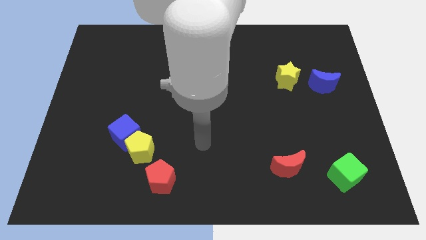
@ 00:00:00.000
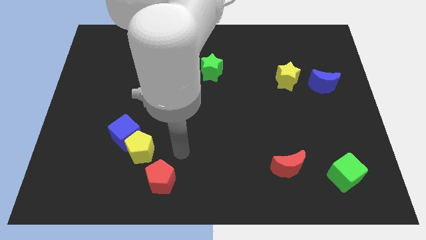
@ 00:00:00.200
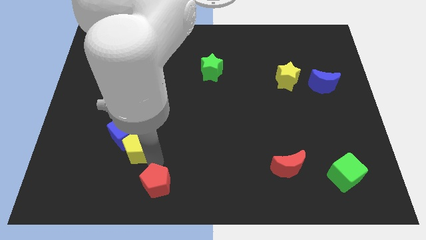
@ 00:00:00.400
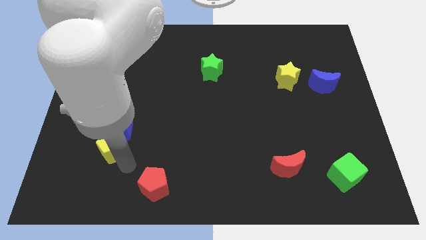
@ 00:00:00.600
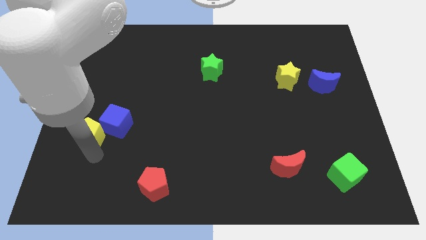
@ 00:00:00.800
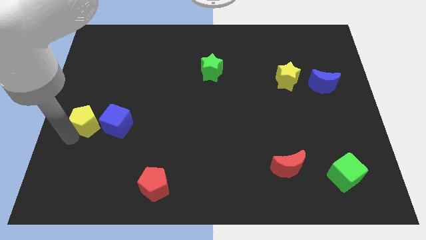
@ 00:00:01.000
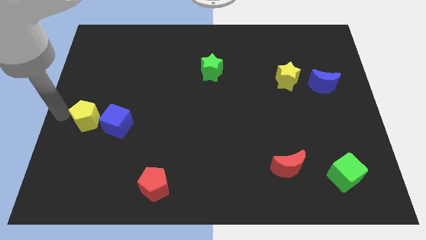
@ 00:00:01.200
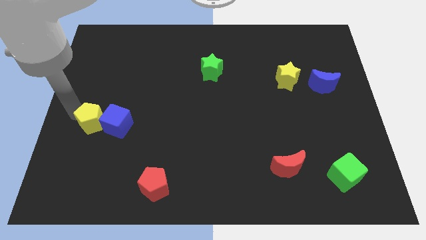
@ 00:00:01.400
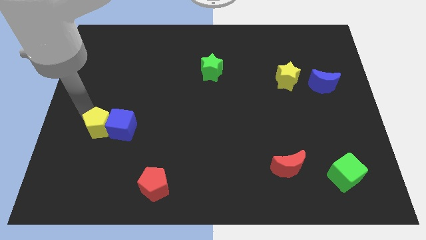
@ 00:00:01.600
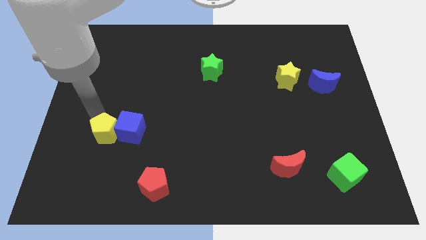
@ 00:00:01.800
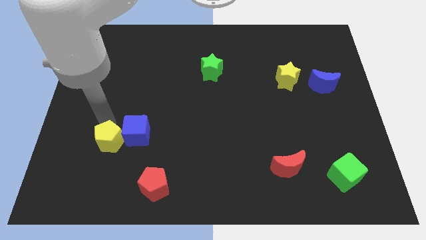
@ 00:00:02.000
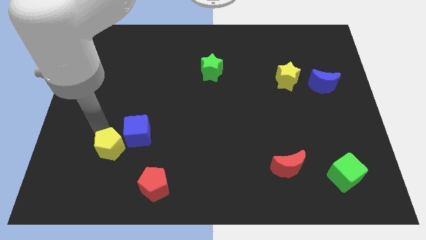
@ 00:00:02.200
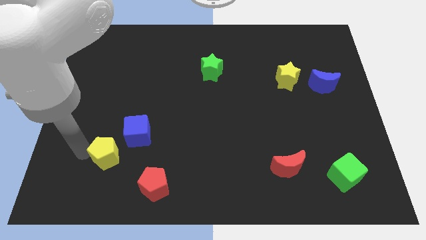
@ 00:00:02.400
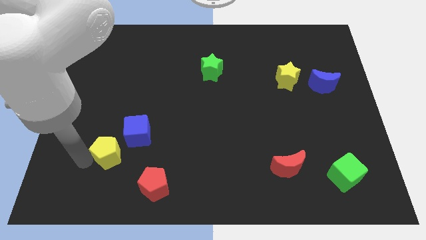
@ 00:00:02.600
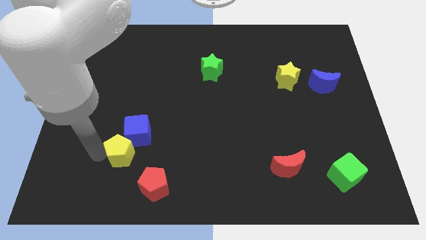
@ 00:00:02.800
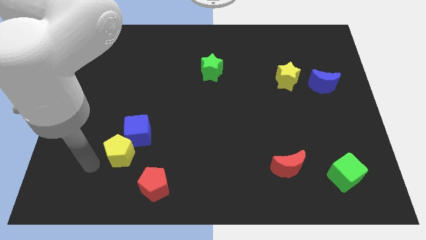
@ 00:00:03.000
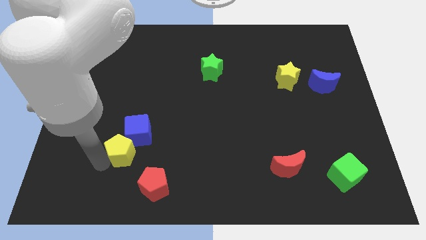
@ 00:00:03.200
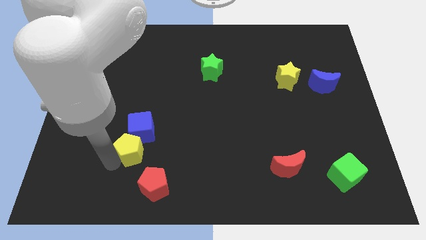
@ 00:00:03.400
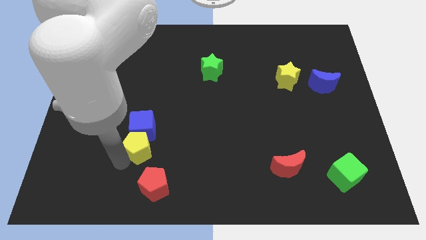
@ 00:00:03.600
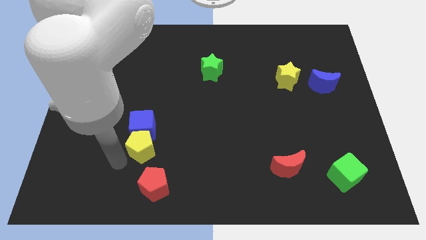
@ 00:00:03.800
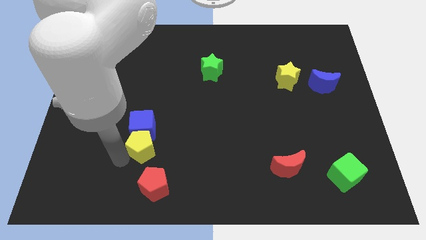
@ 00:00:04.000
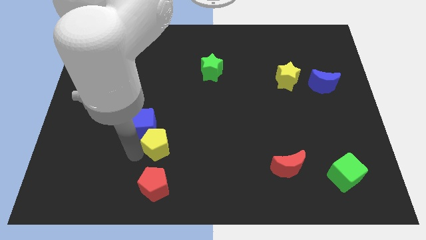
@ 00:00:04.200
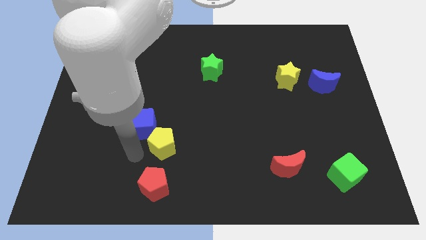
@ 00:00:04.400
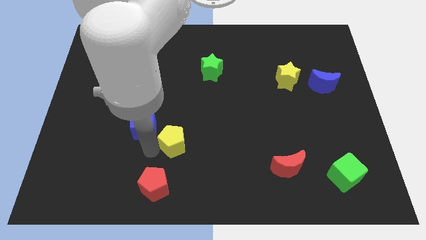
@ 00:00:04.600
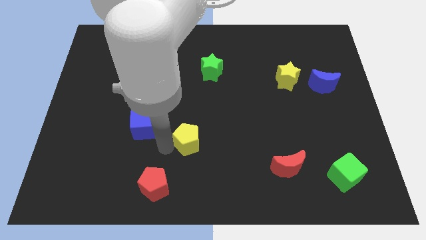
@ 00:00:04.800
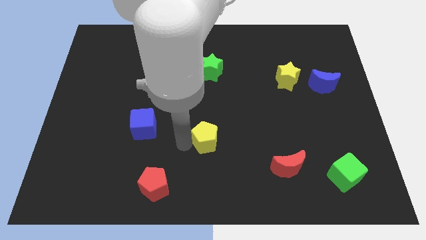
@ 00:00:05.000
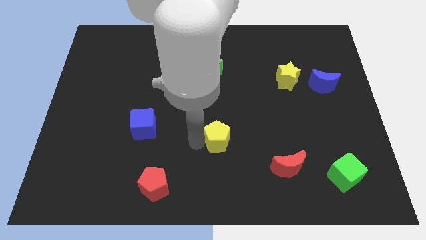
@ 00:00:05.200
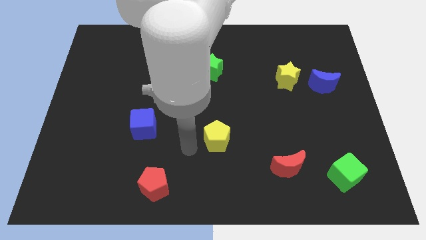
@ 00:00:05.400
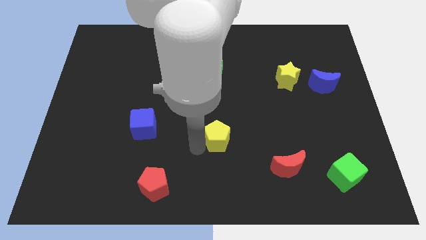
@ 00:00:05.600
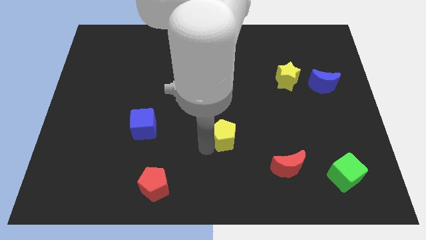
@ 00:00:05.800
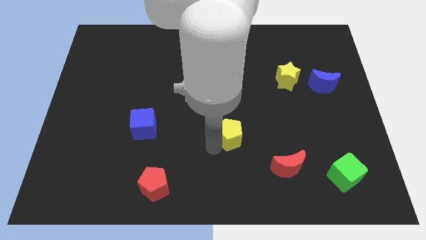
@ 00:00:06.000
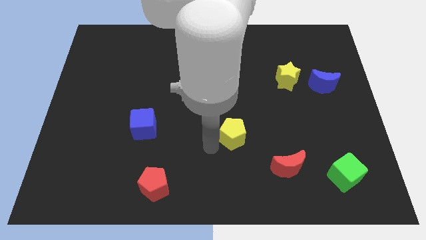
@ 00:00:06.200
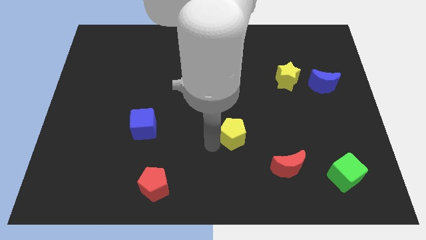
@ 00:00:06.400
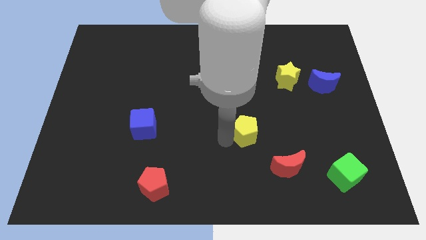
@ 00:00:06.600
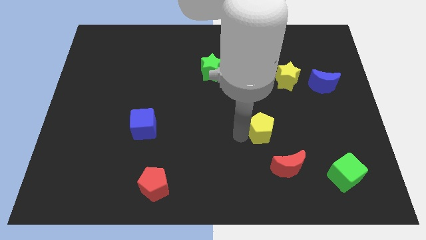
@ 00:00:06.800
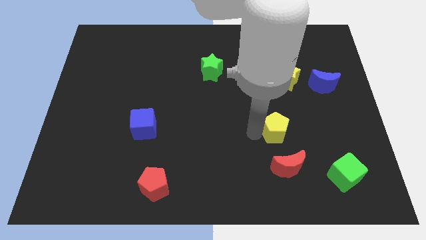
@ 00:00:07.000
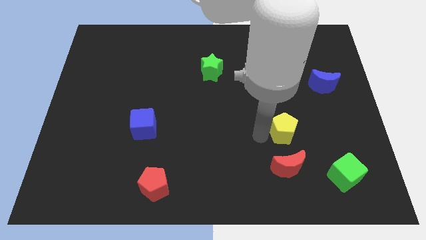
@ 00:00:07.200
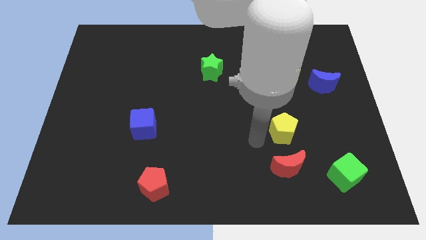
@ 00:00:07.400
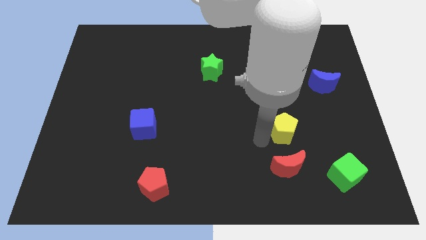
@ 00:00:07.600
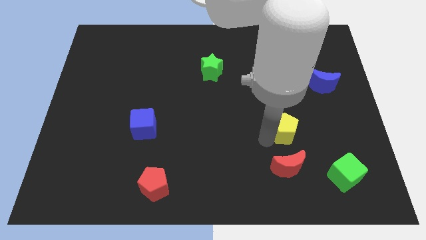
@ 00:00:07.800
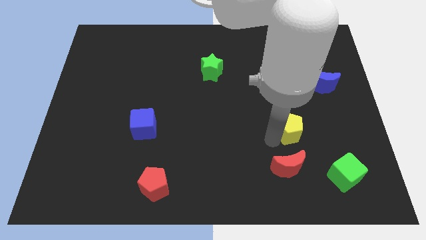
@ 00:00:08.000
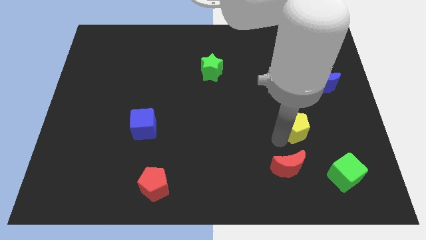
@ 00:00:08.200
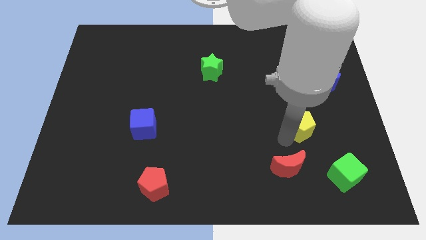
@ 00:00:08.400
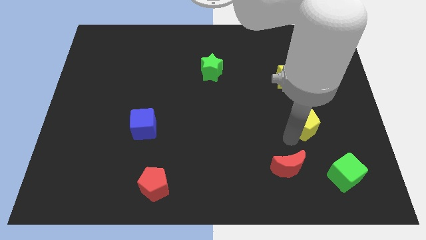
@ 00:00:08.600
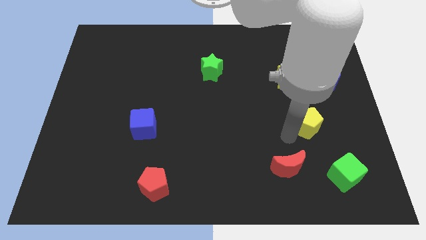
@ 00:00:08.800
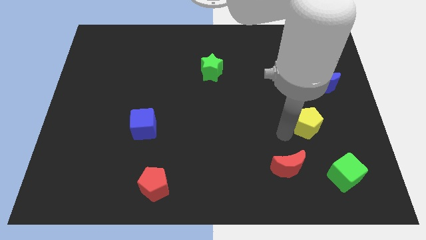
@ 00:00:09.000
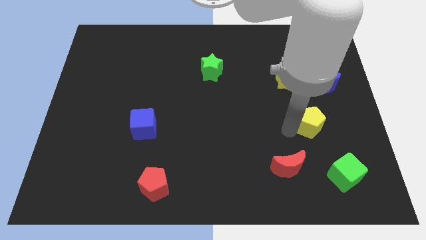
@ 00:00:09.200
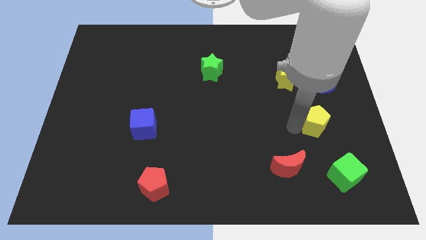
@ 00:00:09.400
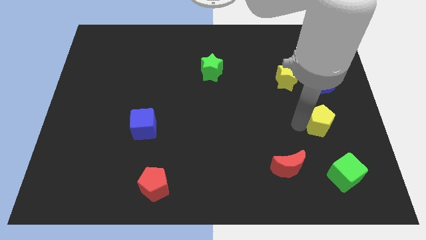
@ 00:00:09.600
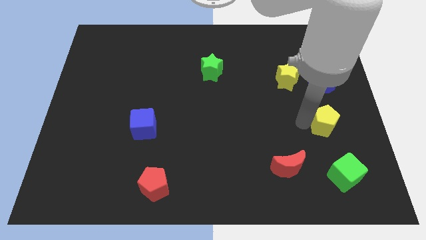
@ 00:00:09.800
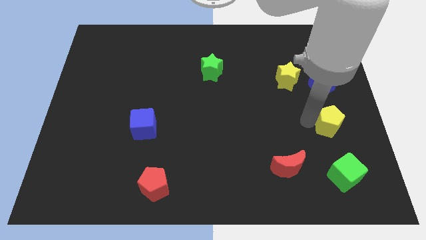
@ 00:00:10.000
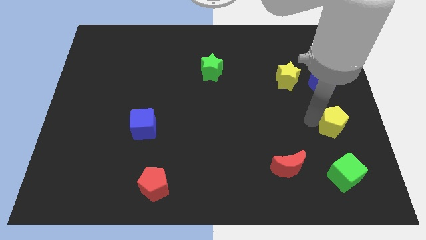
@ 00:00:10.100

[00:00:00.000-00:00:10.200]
slide the yellow pentagon to the center right
